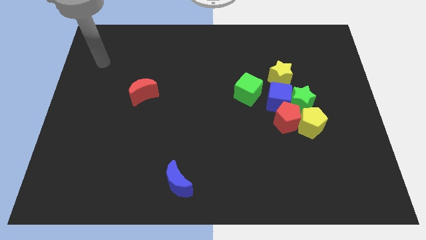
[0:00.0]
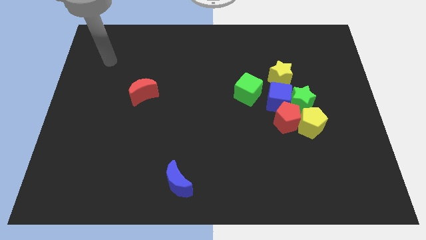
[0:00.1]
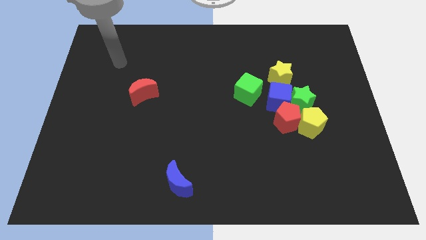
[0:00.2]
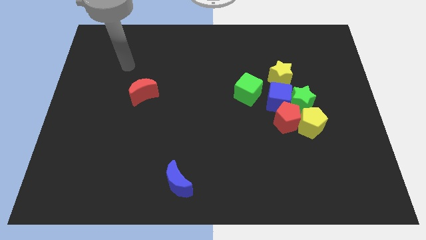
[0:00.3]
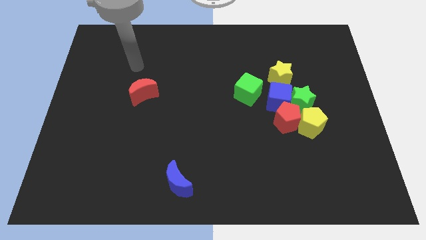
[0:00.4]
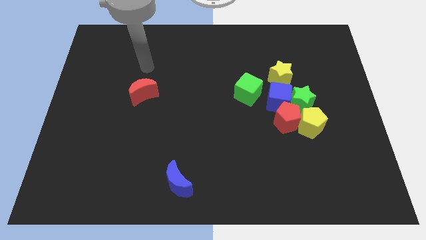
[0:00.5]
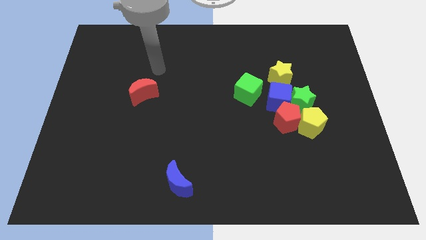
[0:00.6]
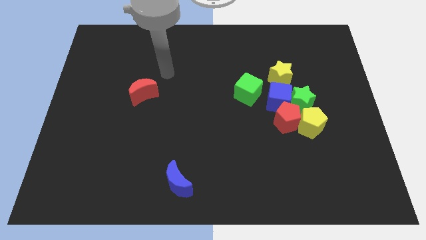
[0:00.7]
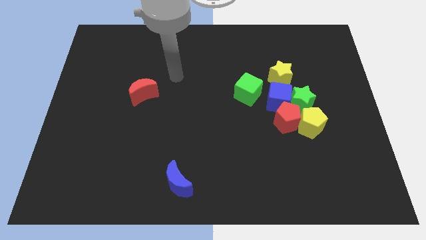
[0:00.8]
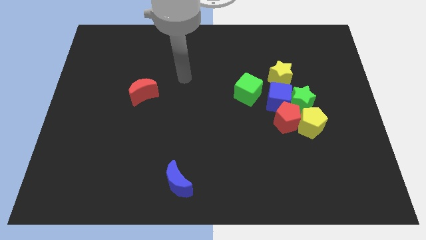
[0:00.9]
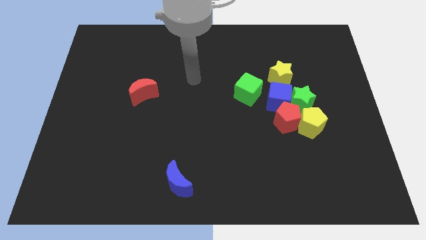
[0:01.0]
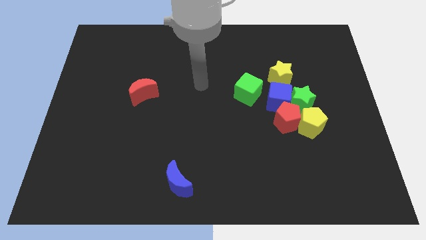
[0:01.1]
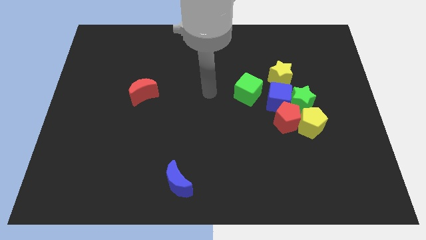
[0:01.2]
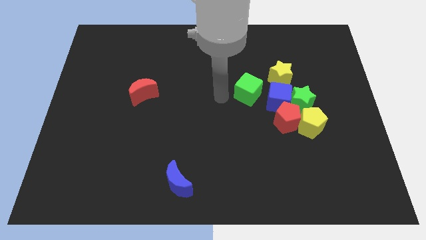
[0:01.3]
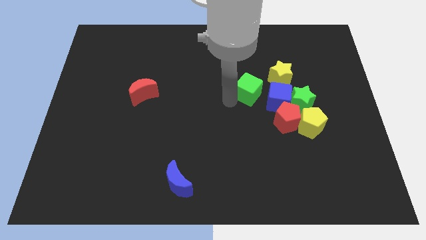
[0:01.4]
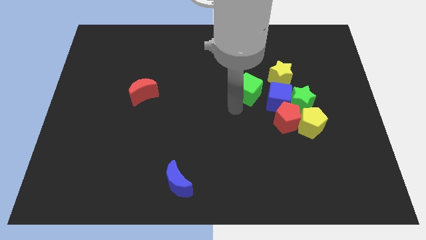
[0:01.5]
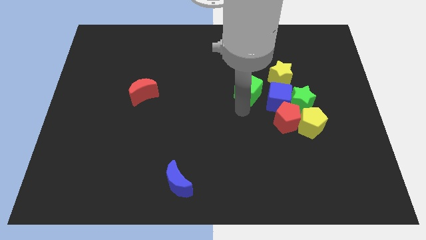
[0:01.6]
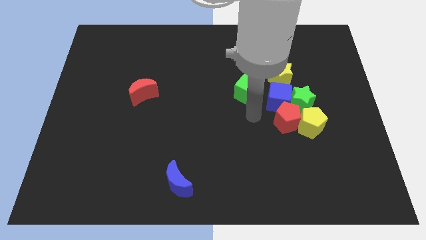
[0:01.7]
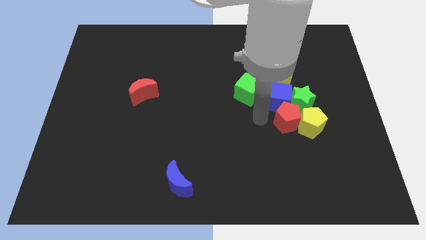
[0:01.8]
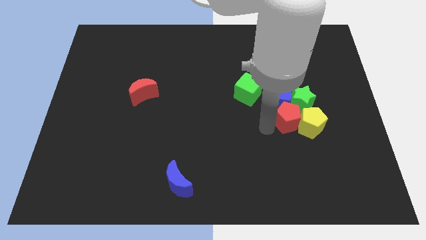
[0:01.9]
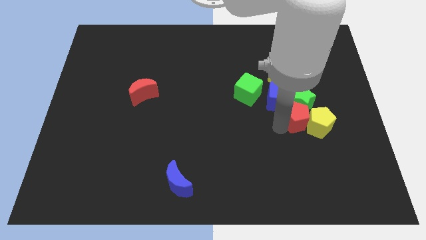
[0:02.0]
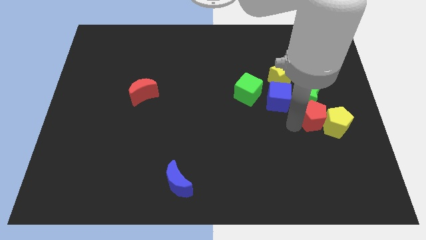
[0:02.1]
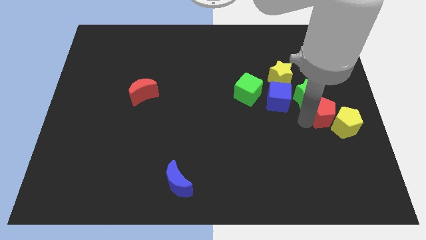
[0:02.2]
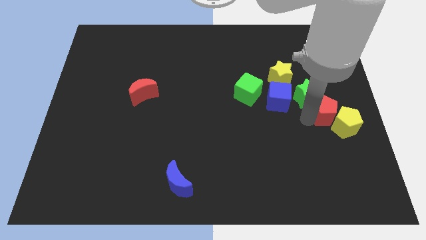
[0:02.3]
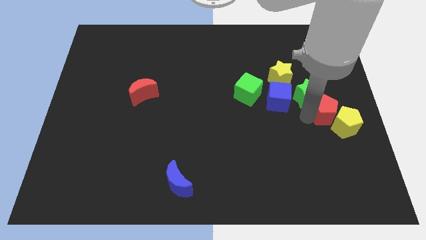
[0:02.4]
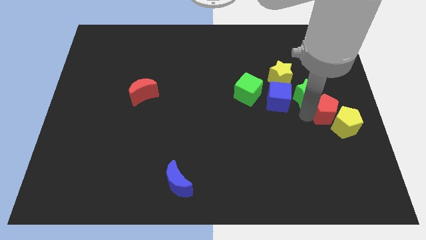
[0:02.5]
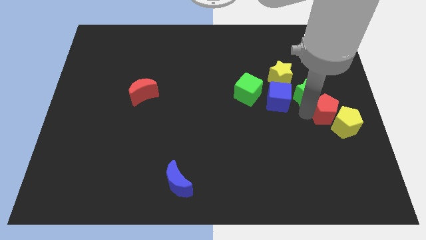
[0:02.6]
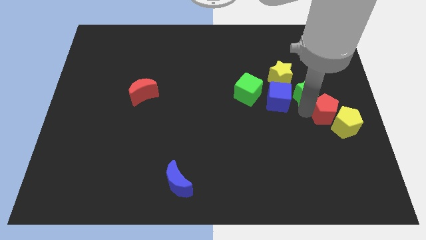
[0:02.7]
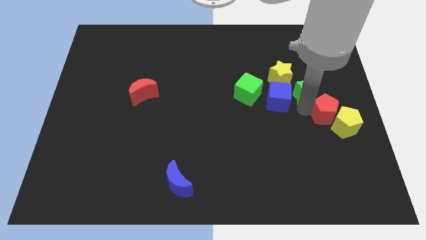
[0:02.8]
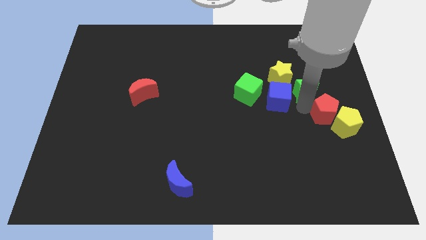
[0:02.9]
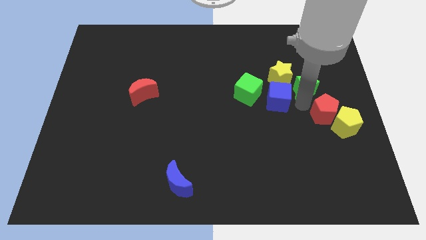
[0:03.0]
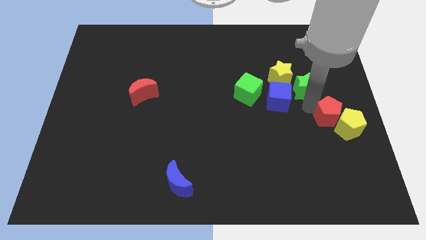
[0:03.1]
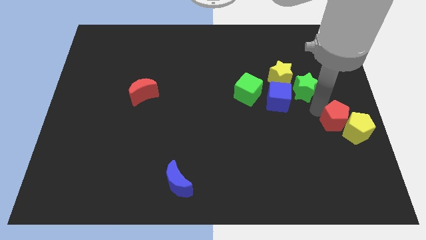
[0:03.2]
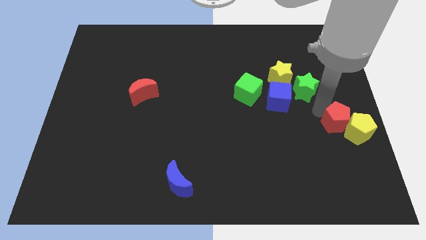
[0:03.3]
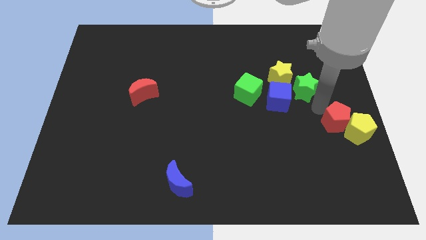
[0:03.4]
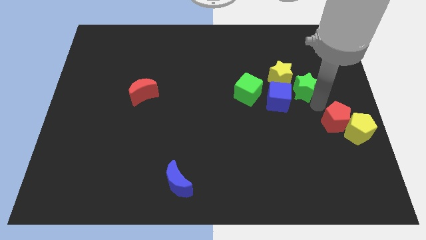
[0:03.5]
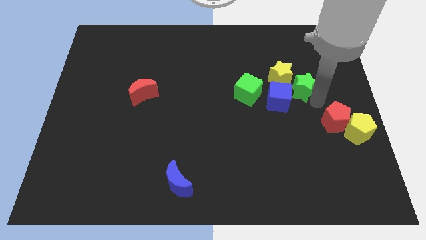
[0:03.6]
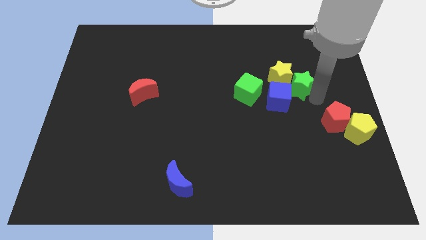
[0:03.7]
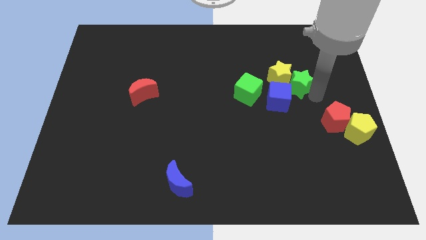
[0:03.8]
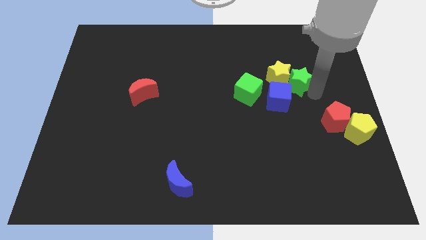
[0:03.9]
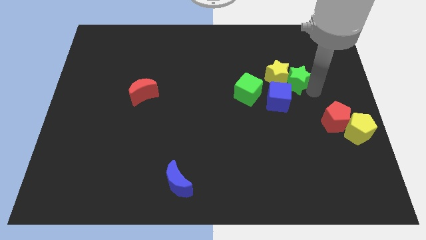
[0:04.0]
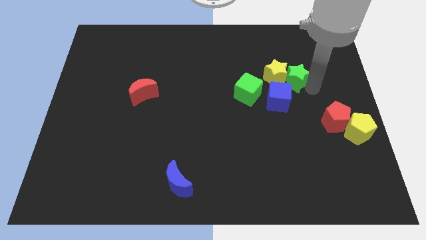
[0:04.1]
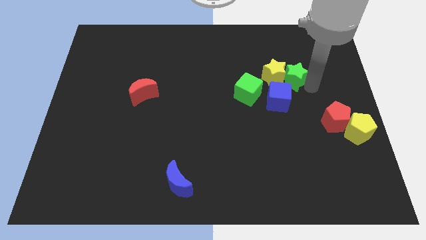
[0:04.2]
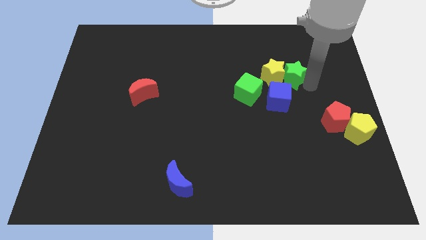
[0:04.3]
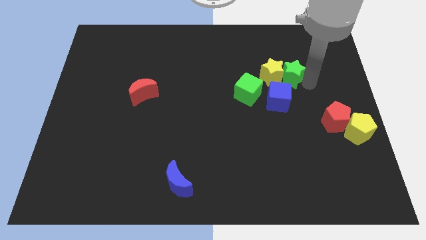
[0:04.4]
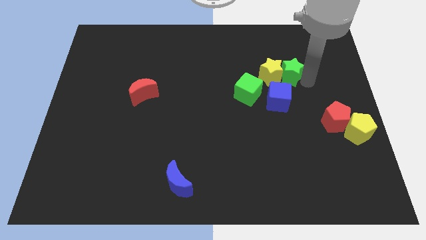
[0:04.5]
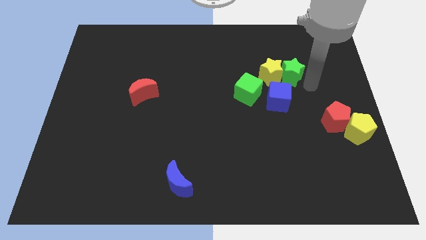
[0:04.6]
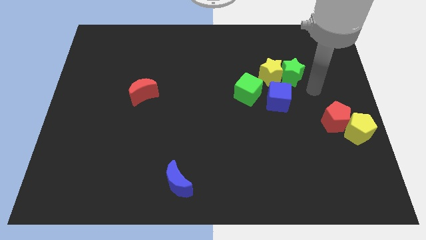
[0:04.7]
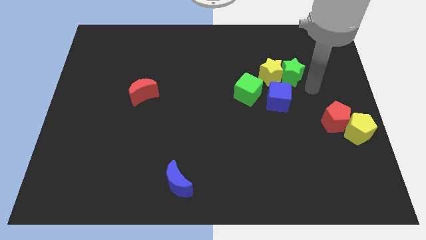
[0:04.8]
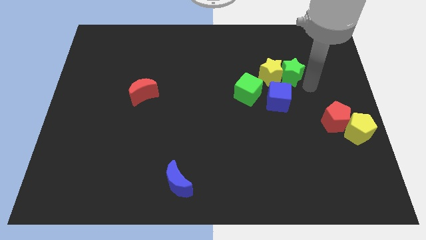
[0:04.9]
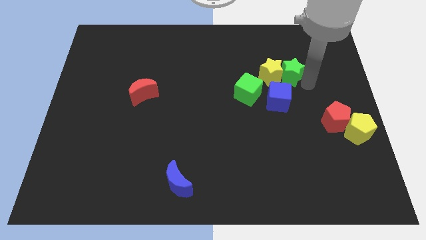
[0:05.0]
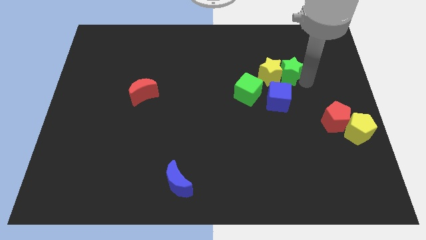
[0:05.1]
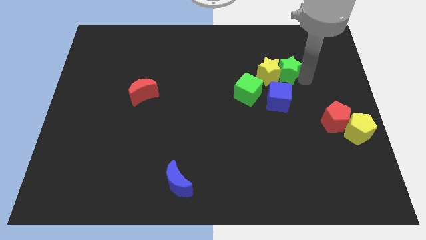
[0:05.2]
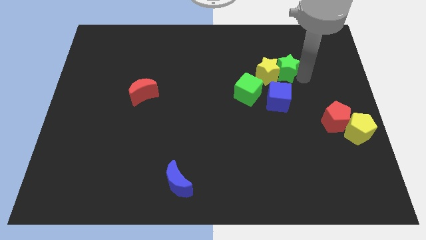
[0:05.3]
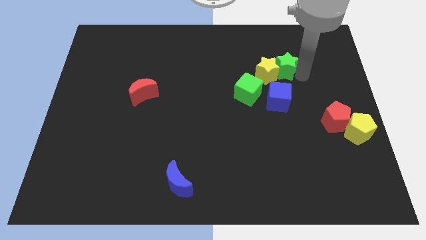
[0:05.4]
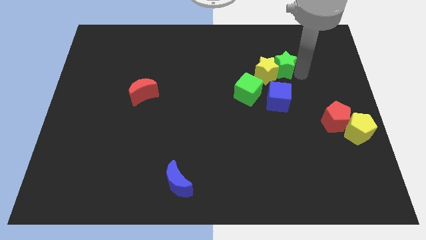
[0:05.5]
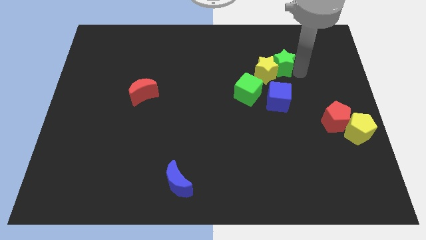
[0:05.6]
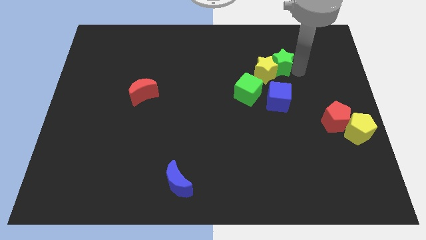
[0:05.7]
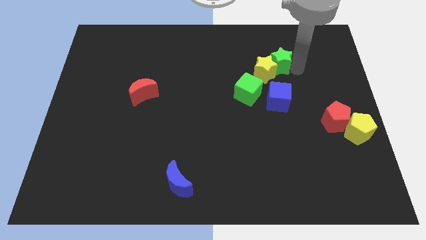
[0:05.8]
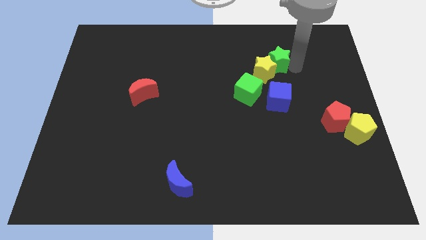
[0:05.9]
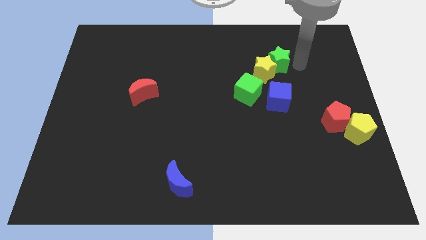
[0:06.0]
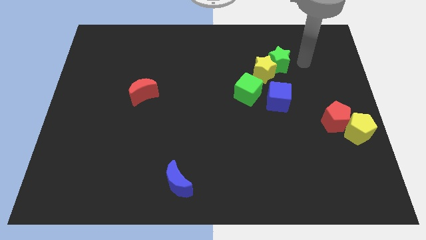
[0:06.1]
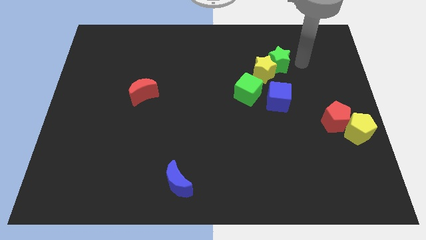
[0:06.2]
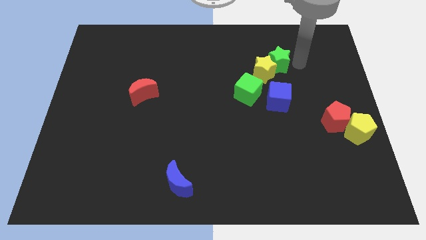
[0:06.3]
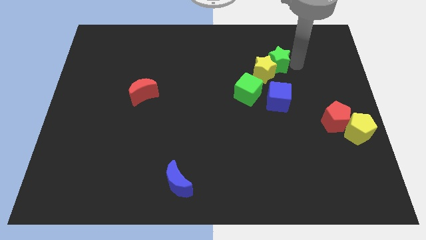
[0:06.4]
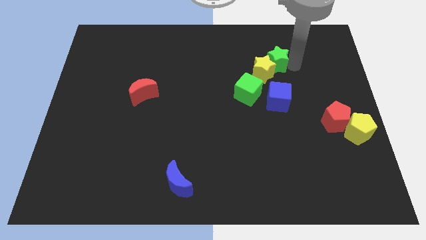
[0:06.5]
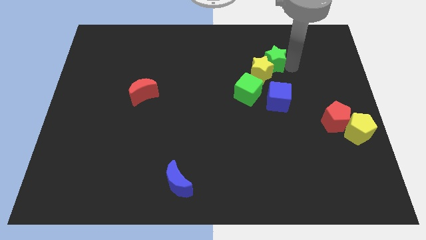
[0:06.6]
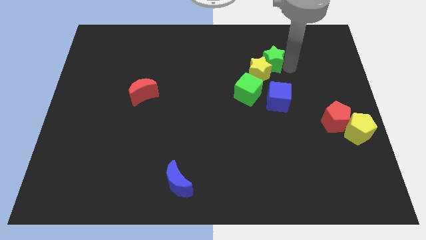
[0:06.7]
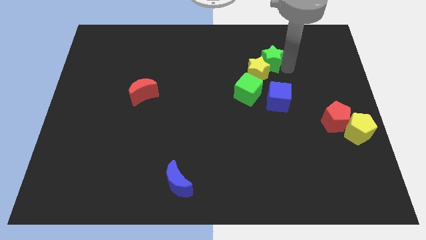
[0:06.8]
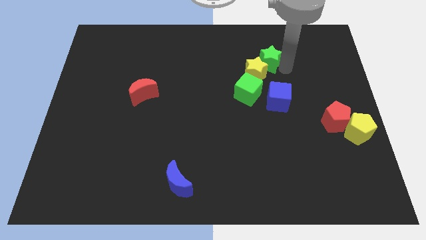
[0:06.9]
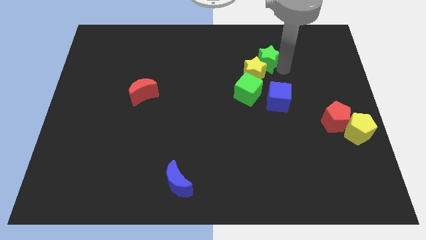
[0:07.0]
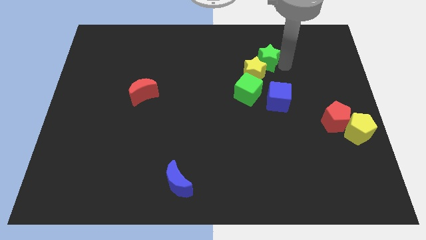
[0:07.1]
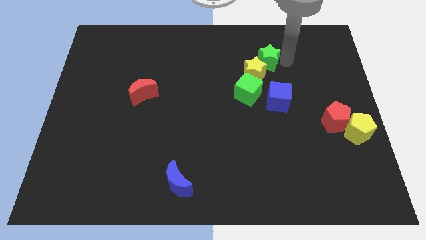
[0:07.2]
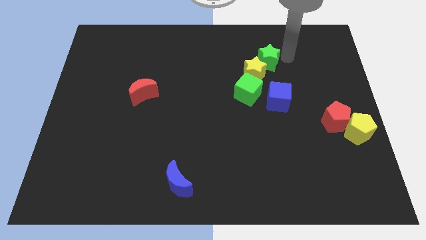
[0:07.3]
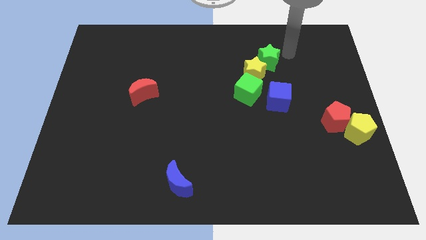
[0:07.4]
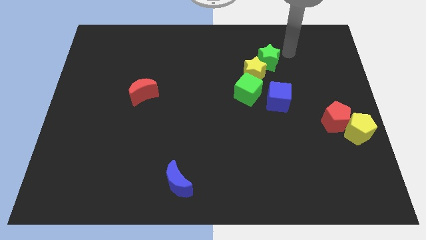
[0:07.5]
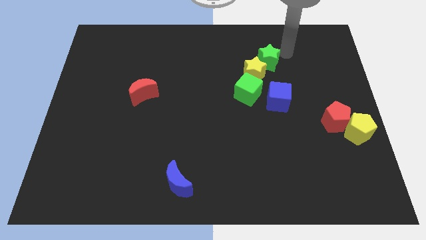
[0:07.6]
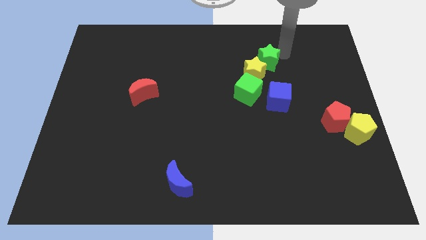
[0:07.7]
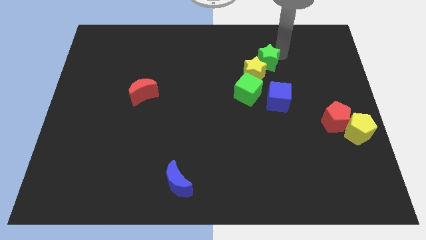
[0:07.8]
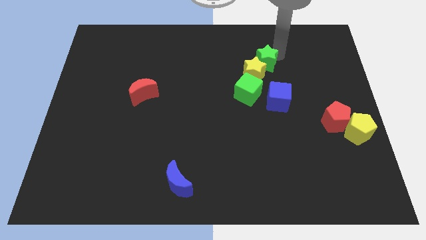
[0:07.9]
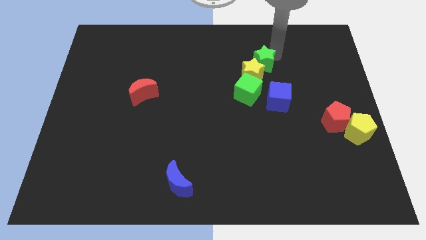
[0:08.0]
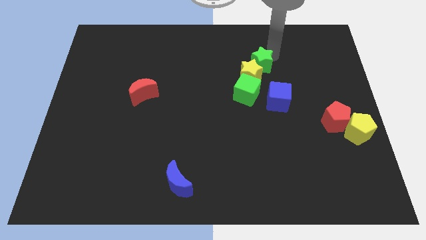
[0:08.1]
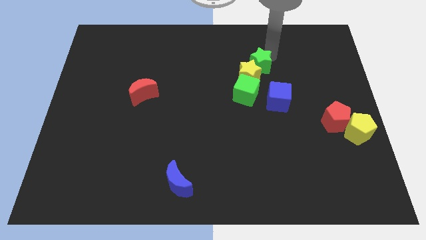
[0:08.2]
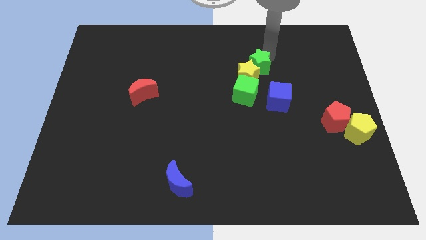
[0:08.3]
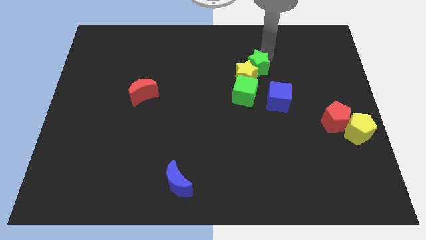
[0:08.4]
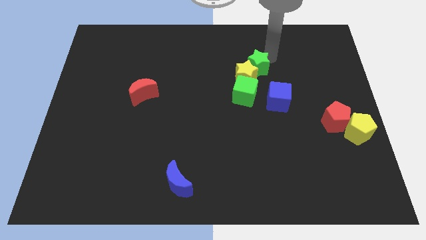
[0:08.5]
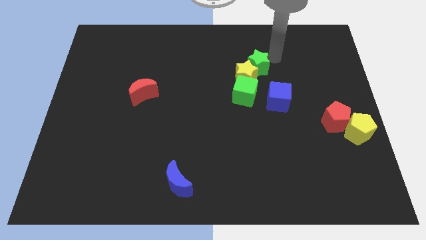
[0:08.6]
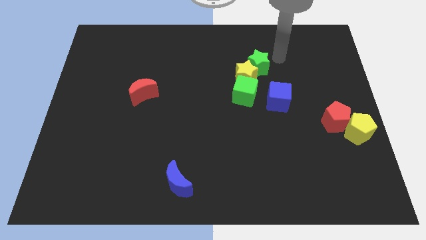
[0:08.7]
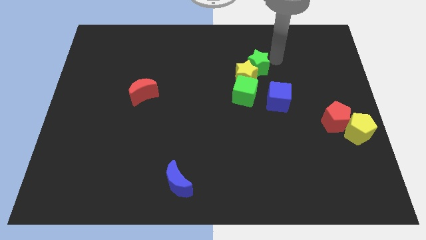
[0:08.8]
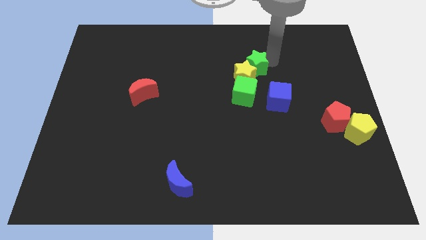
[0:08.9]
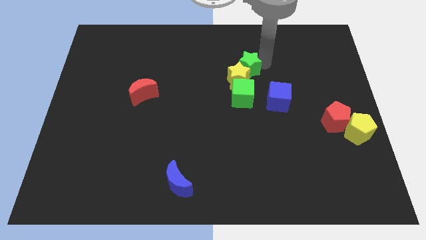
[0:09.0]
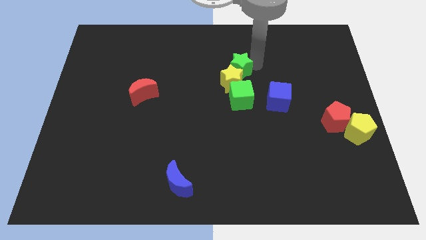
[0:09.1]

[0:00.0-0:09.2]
move the green star a bit to the left
